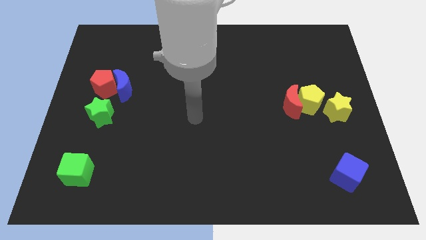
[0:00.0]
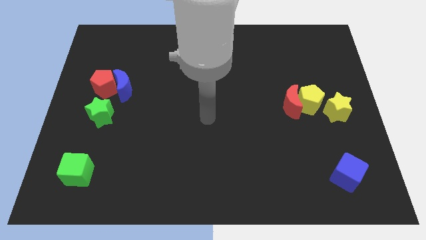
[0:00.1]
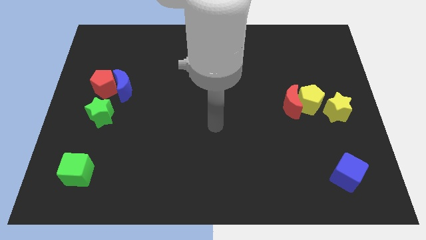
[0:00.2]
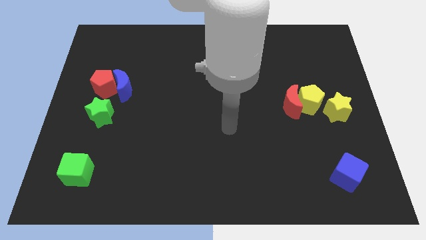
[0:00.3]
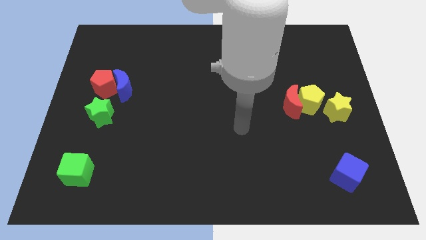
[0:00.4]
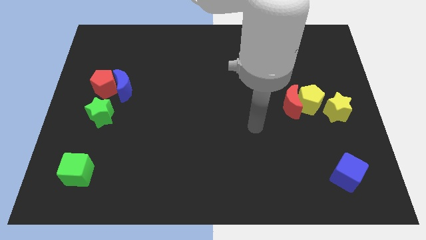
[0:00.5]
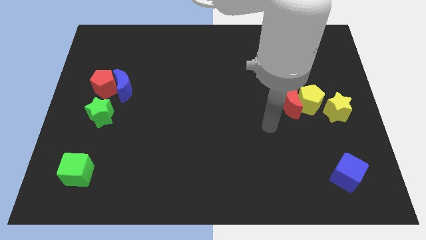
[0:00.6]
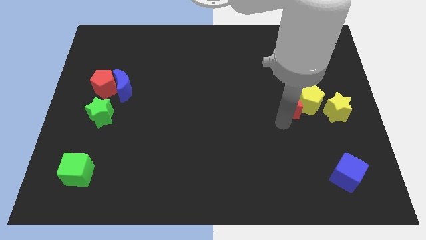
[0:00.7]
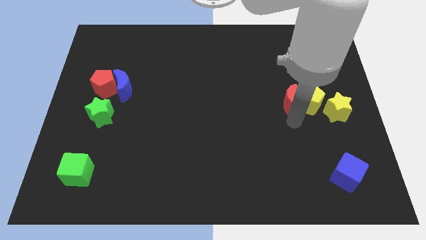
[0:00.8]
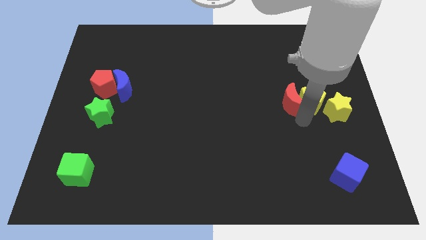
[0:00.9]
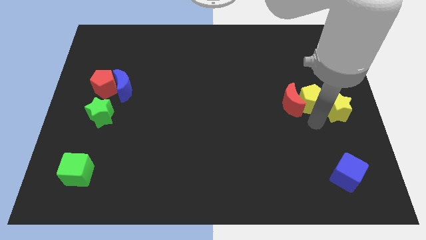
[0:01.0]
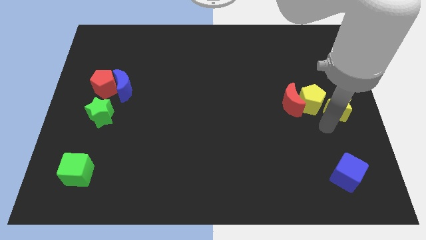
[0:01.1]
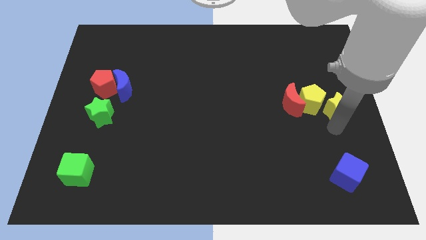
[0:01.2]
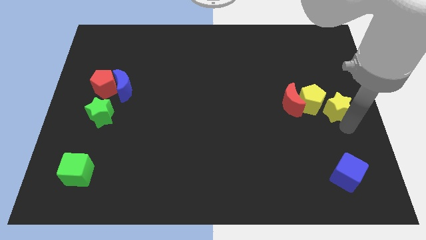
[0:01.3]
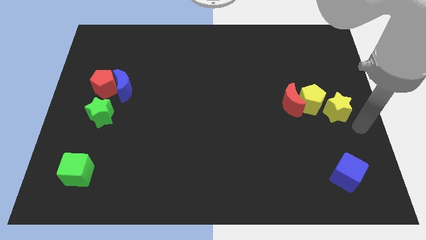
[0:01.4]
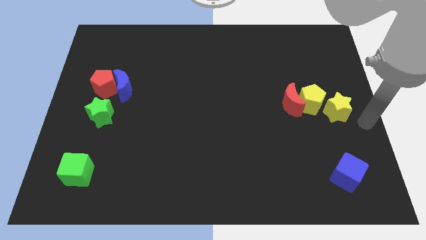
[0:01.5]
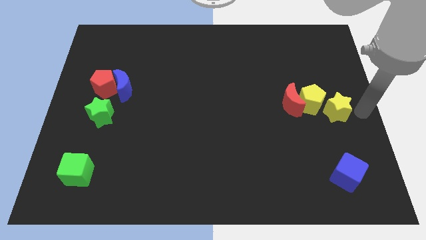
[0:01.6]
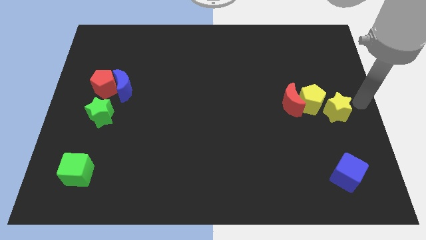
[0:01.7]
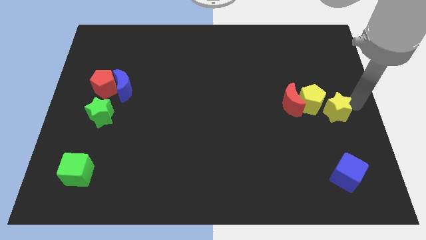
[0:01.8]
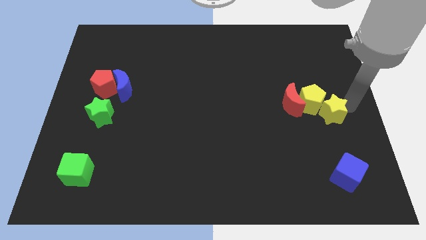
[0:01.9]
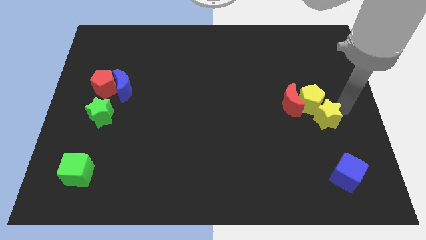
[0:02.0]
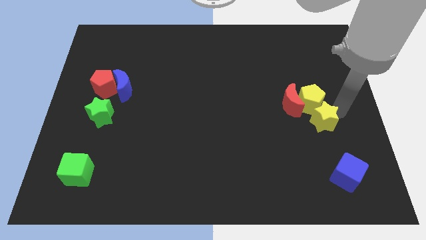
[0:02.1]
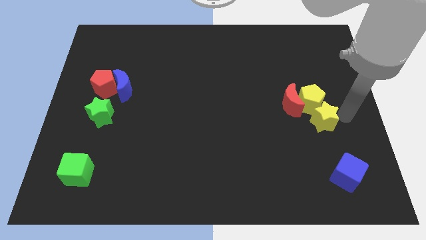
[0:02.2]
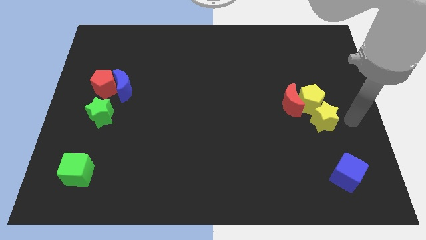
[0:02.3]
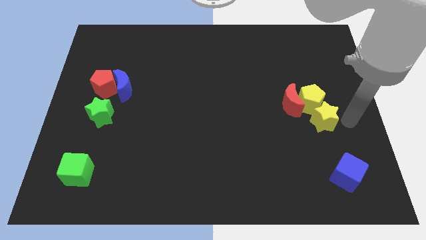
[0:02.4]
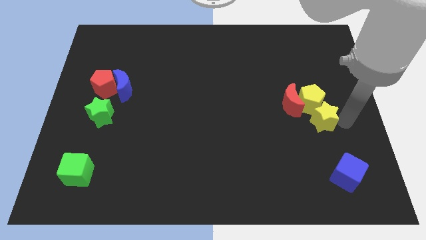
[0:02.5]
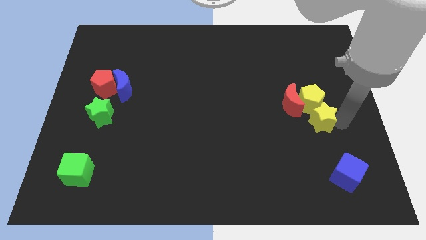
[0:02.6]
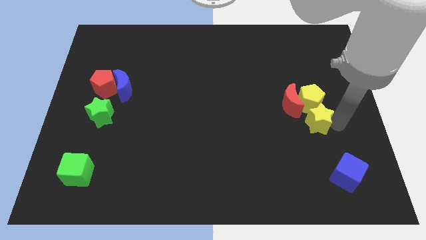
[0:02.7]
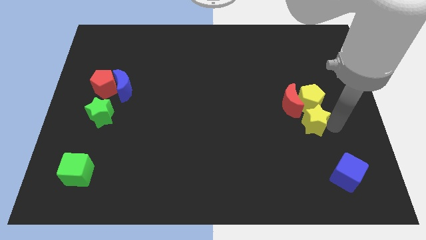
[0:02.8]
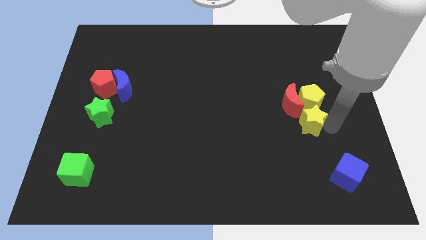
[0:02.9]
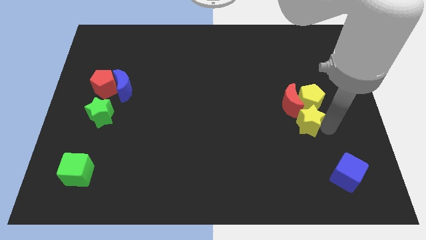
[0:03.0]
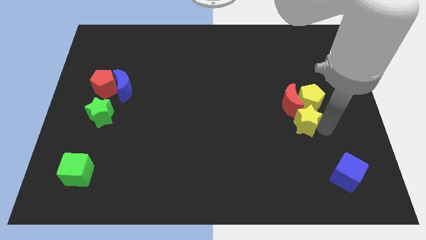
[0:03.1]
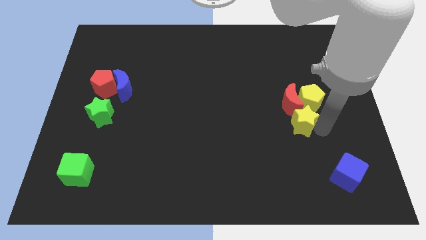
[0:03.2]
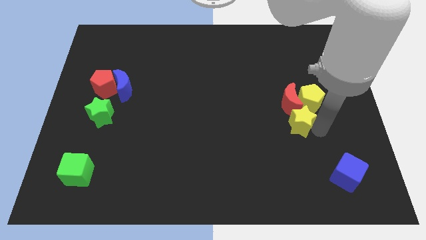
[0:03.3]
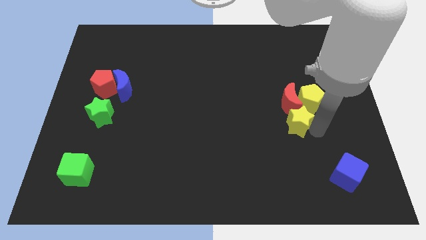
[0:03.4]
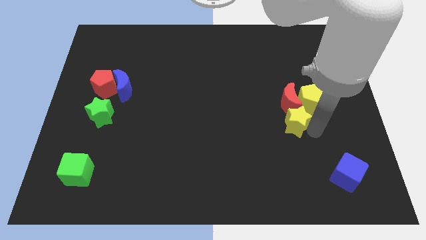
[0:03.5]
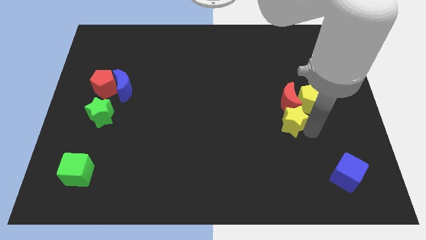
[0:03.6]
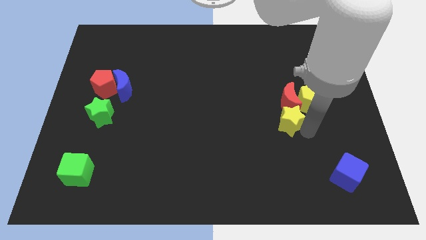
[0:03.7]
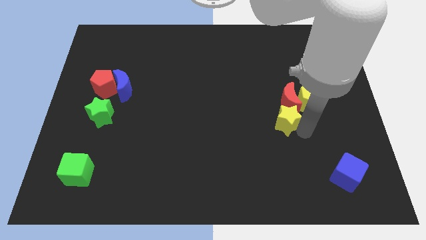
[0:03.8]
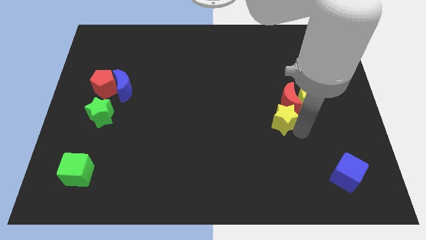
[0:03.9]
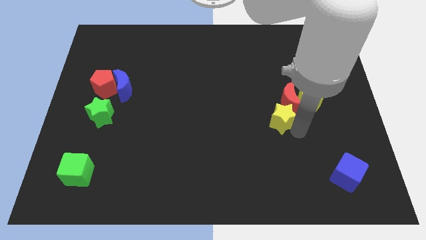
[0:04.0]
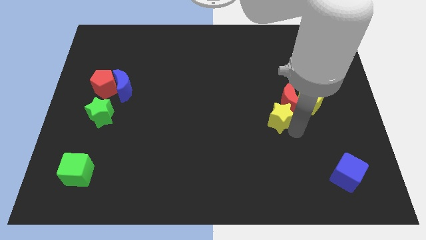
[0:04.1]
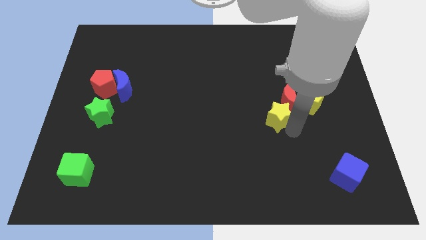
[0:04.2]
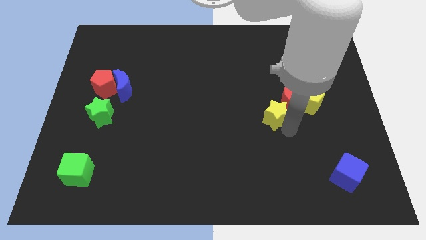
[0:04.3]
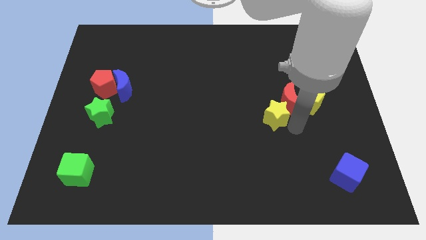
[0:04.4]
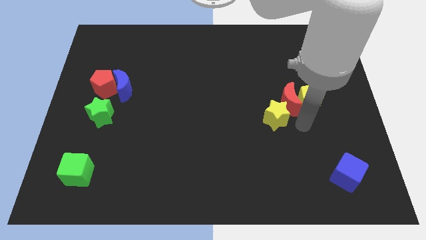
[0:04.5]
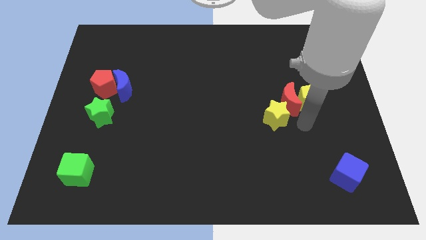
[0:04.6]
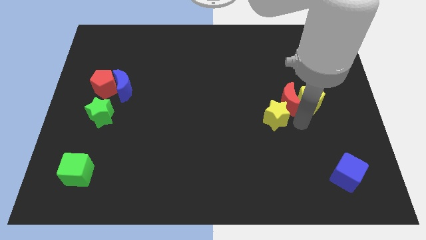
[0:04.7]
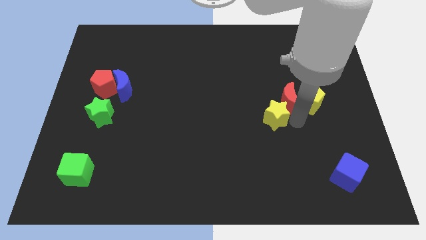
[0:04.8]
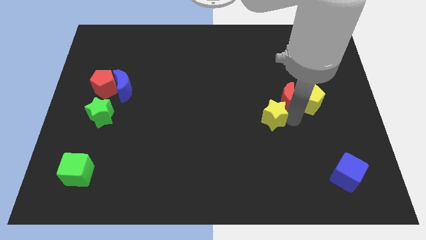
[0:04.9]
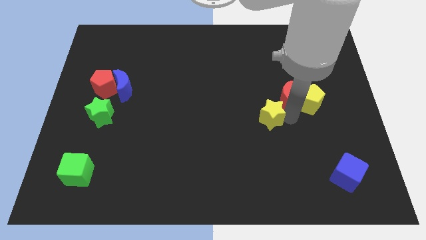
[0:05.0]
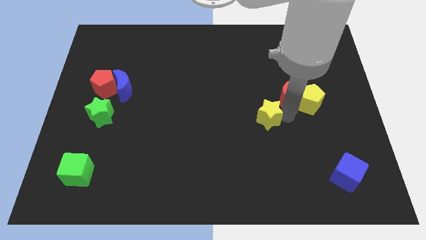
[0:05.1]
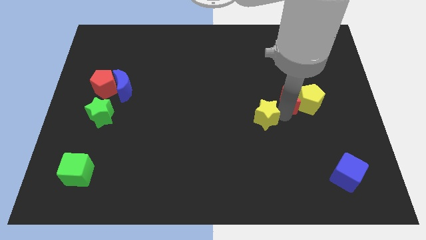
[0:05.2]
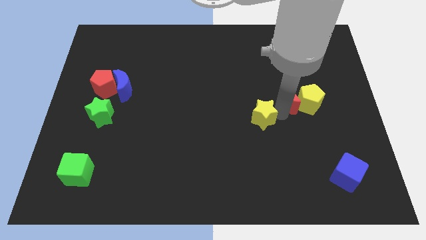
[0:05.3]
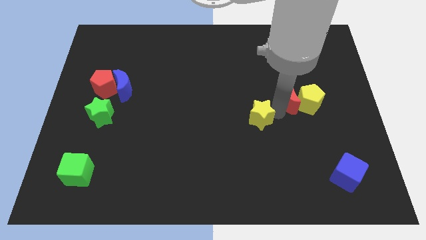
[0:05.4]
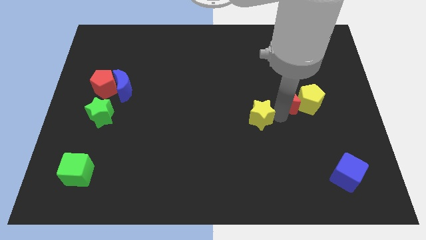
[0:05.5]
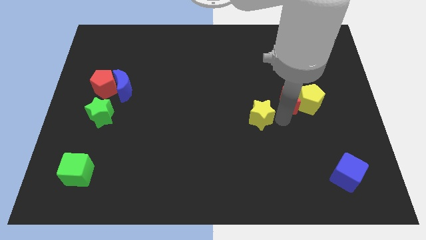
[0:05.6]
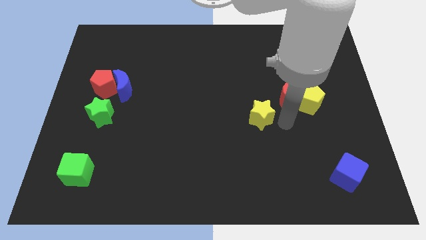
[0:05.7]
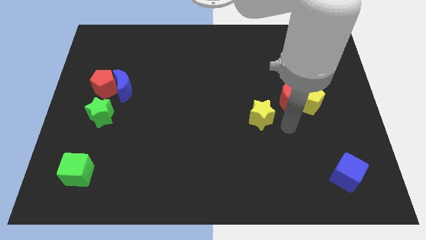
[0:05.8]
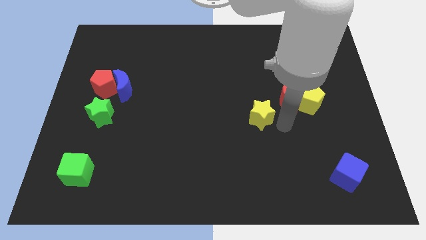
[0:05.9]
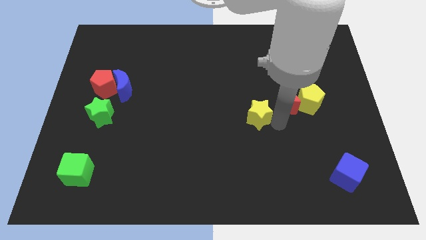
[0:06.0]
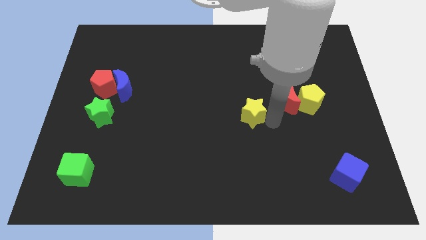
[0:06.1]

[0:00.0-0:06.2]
move the yellow star to the left

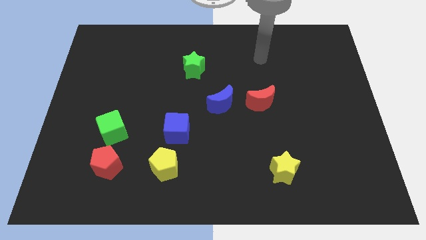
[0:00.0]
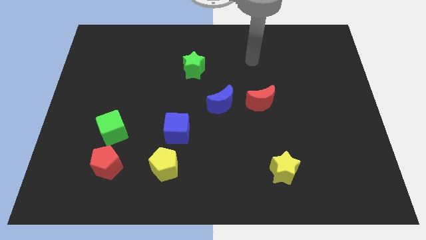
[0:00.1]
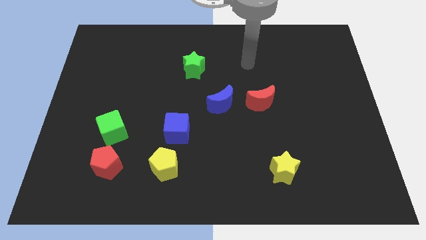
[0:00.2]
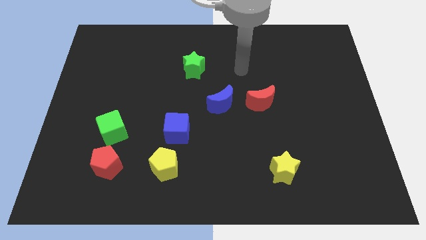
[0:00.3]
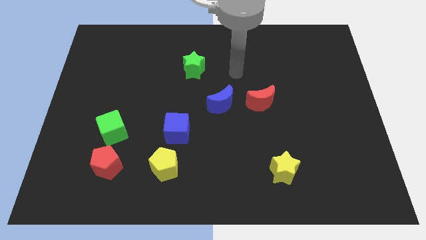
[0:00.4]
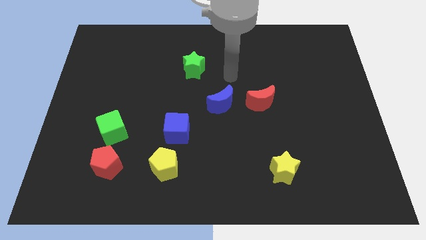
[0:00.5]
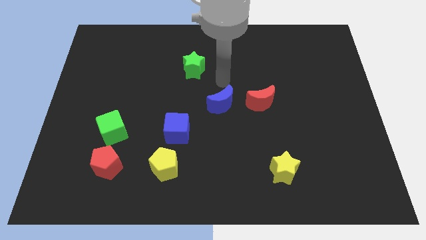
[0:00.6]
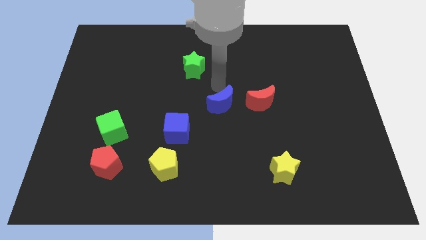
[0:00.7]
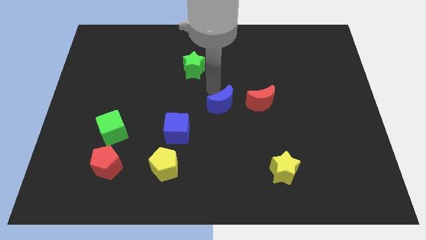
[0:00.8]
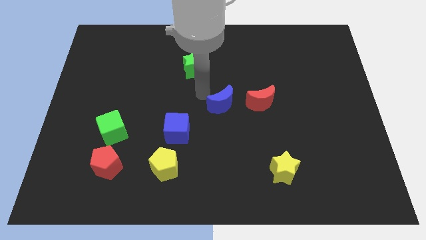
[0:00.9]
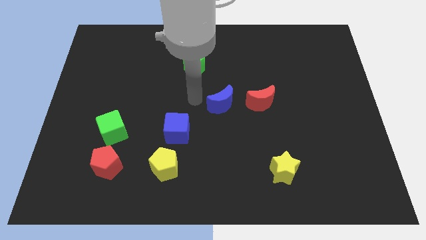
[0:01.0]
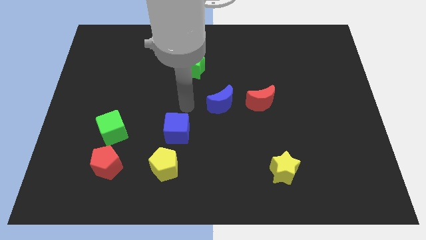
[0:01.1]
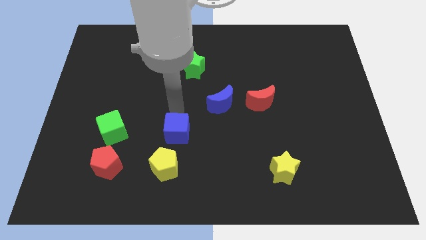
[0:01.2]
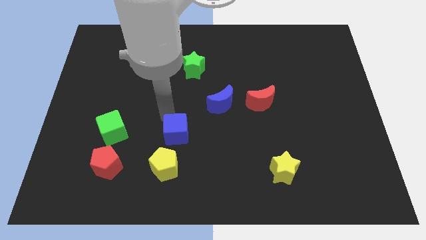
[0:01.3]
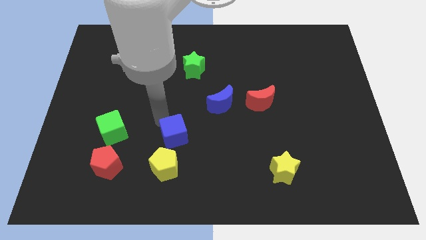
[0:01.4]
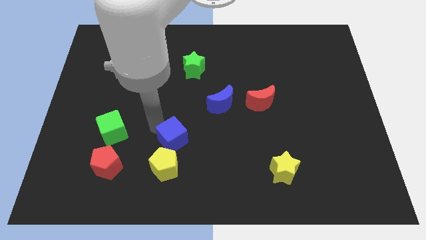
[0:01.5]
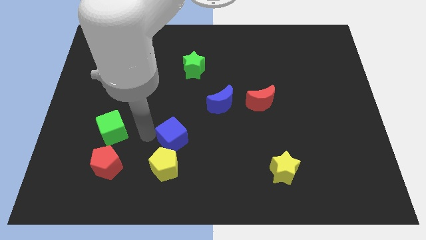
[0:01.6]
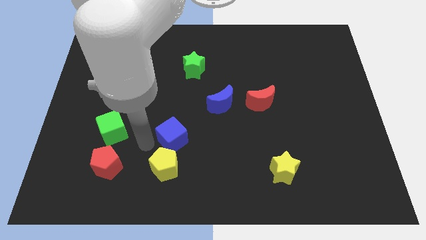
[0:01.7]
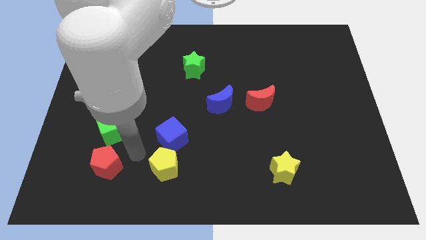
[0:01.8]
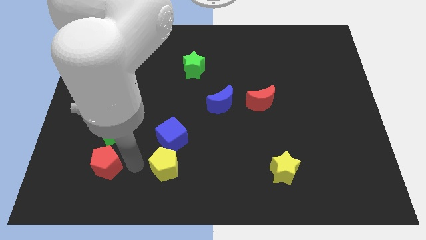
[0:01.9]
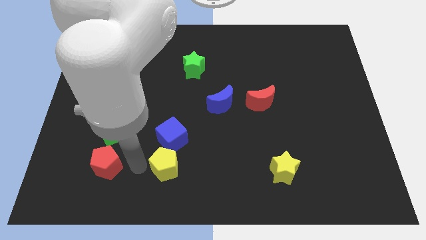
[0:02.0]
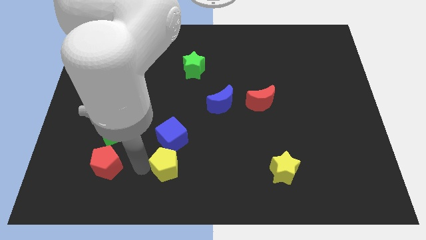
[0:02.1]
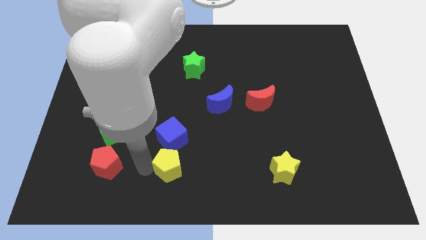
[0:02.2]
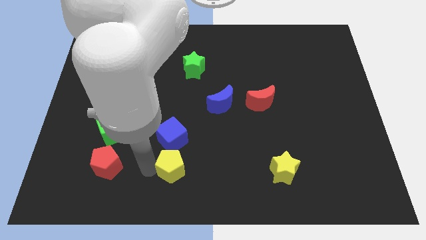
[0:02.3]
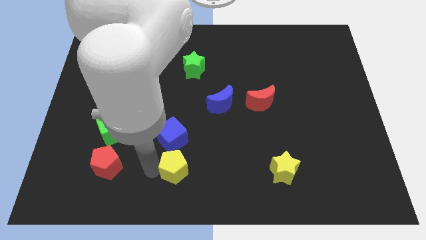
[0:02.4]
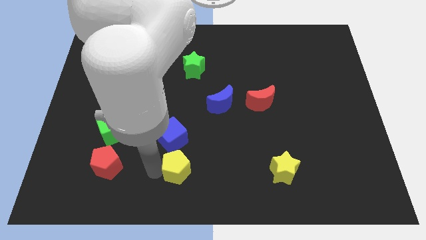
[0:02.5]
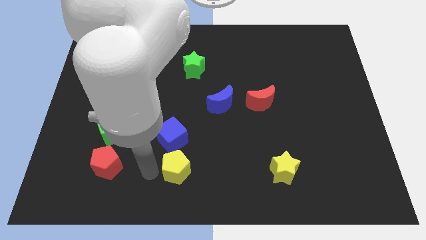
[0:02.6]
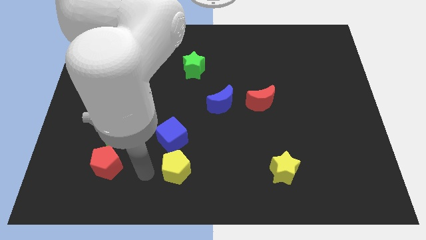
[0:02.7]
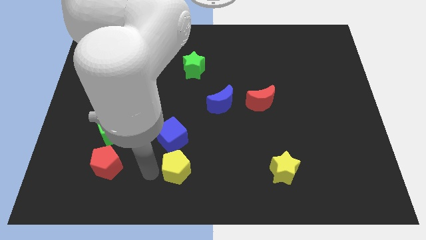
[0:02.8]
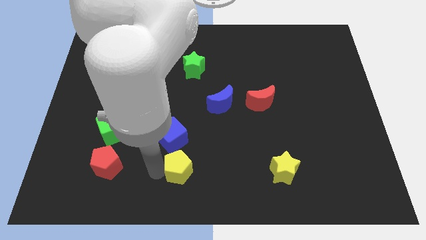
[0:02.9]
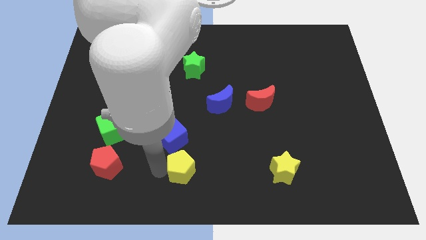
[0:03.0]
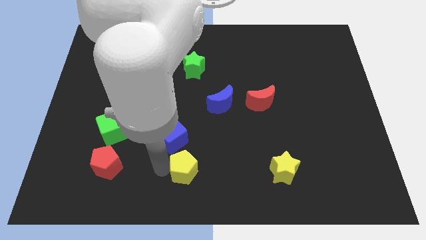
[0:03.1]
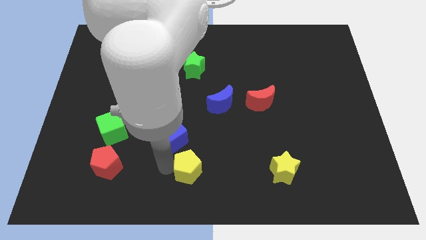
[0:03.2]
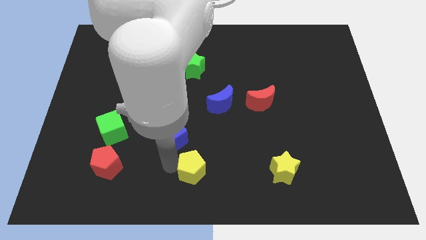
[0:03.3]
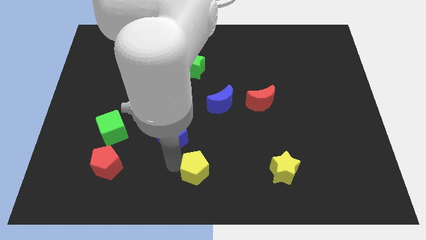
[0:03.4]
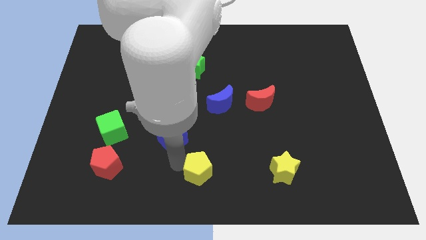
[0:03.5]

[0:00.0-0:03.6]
slightly slide the yellow pentagon to the right
